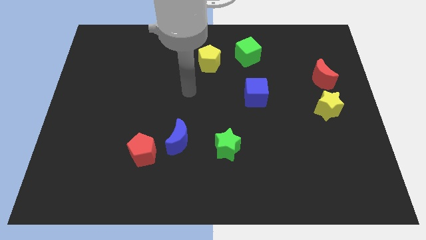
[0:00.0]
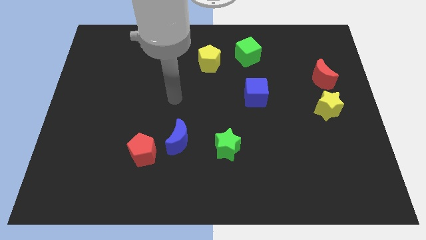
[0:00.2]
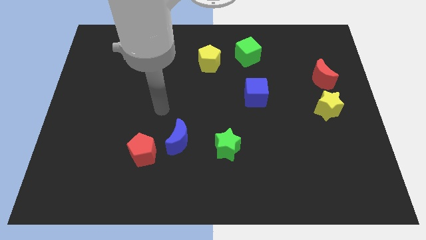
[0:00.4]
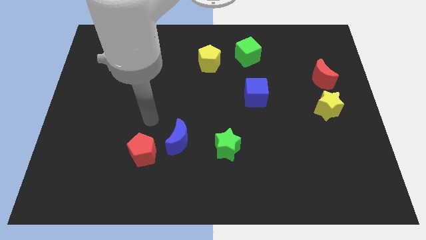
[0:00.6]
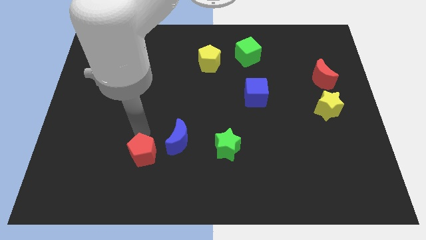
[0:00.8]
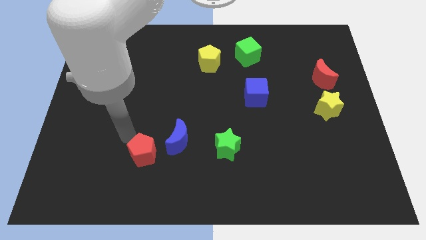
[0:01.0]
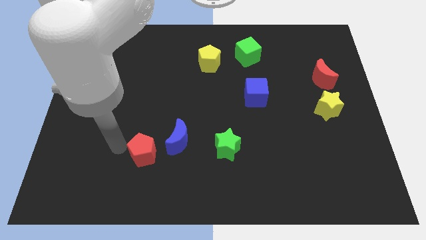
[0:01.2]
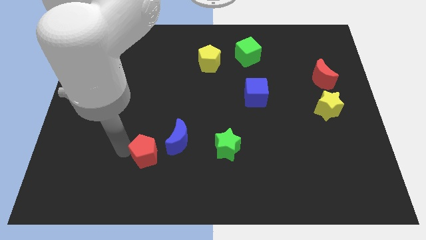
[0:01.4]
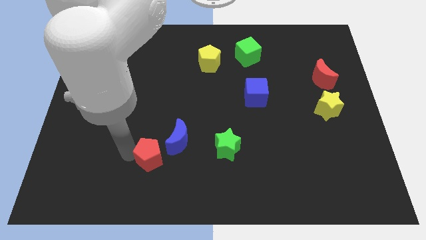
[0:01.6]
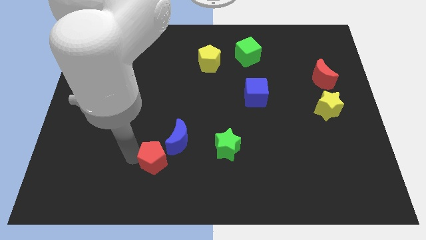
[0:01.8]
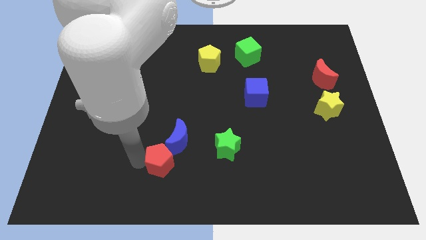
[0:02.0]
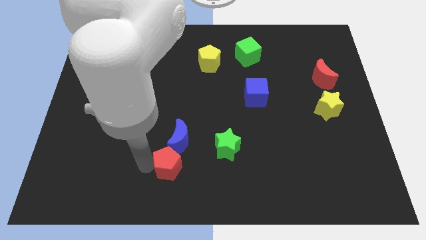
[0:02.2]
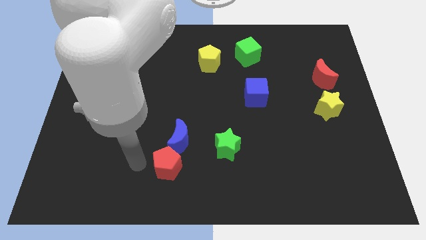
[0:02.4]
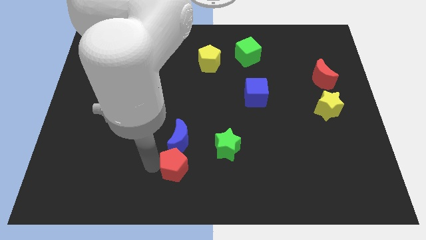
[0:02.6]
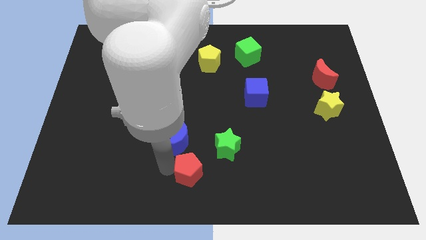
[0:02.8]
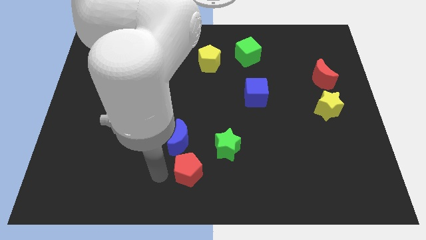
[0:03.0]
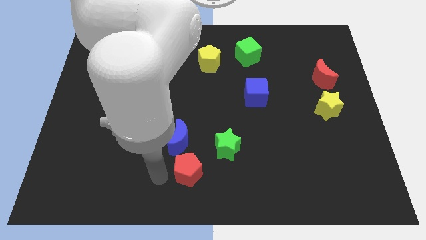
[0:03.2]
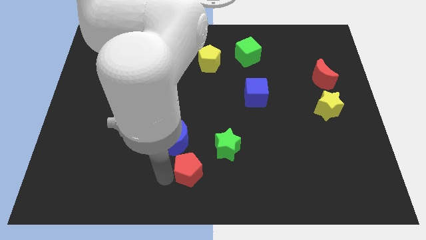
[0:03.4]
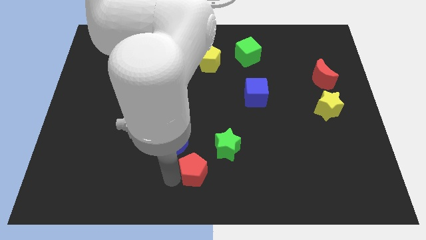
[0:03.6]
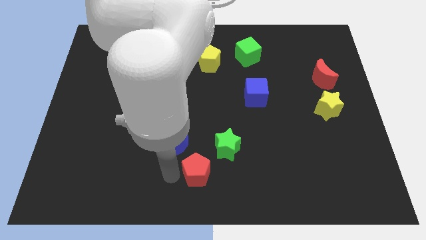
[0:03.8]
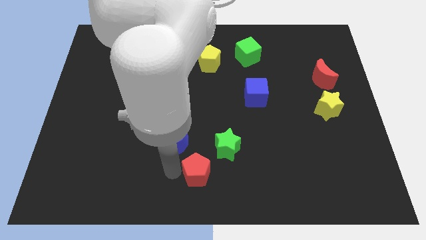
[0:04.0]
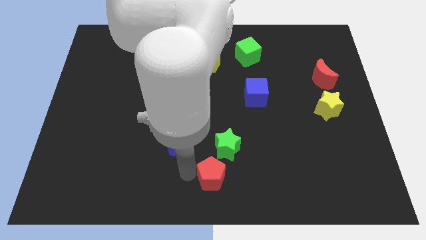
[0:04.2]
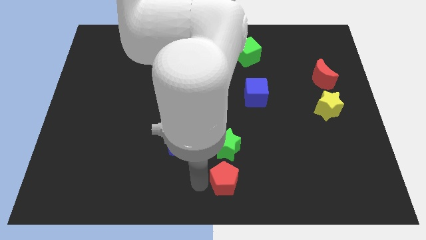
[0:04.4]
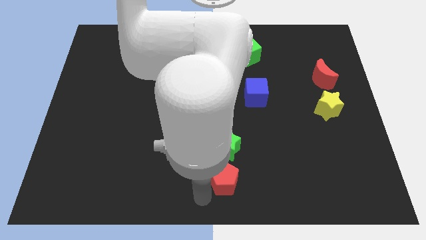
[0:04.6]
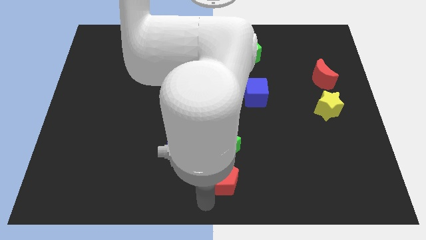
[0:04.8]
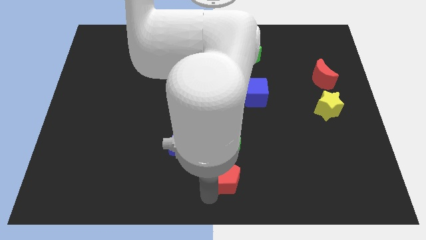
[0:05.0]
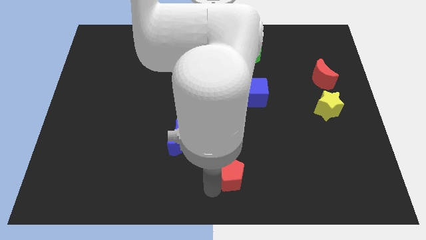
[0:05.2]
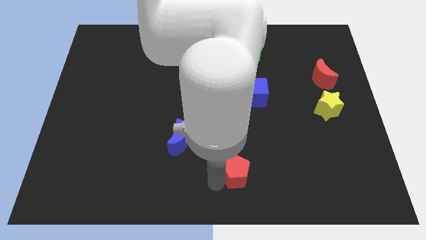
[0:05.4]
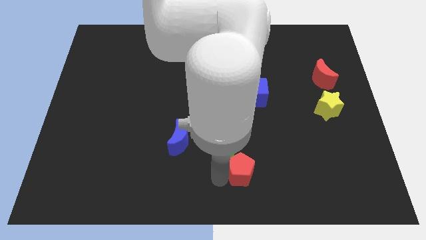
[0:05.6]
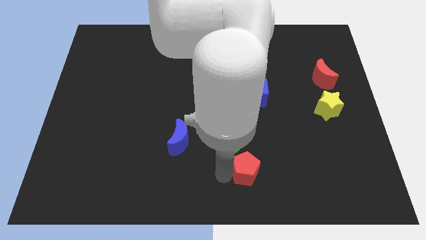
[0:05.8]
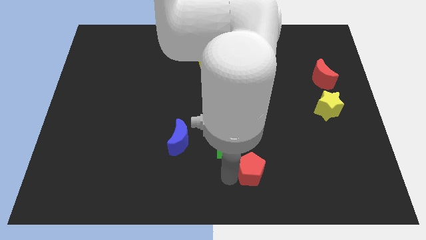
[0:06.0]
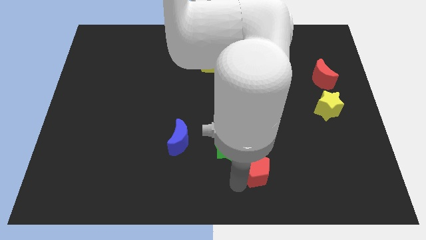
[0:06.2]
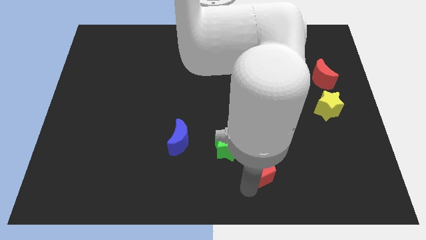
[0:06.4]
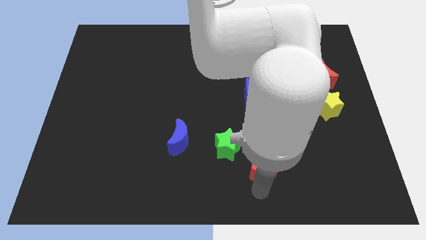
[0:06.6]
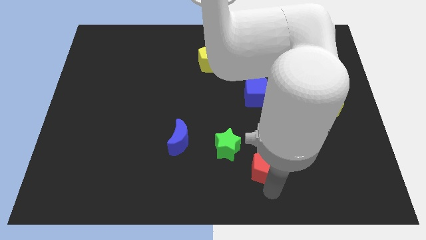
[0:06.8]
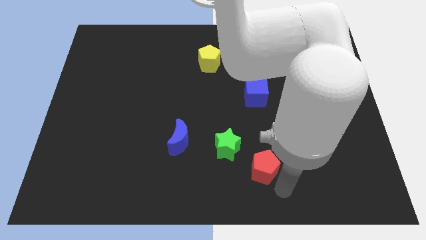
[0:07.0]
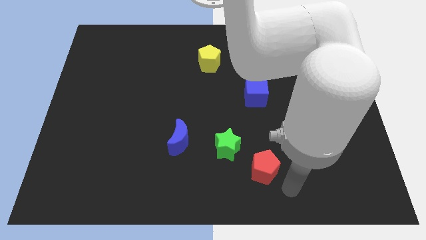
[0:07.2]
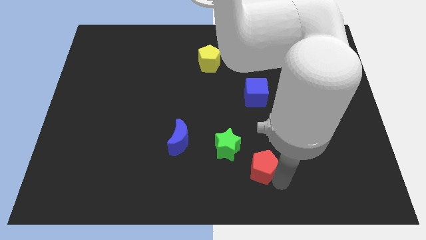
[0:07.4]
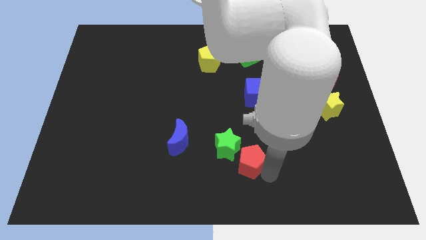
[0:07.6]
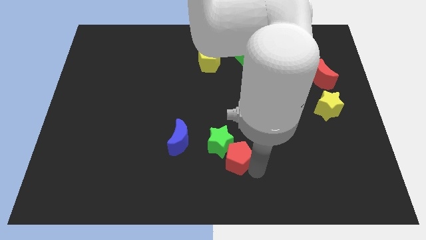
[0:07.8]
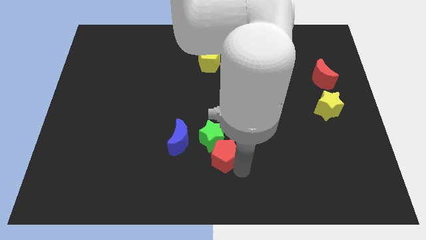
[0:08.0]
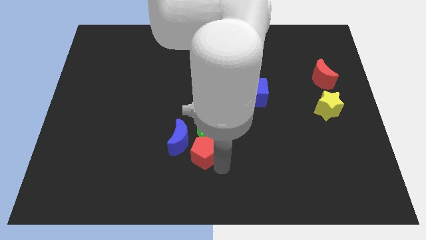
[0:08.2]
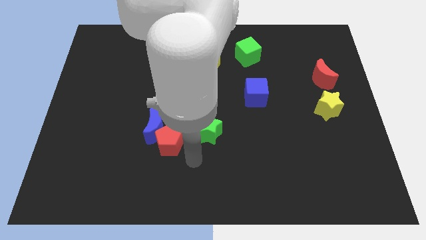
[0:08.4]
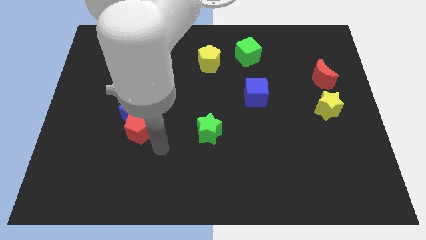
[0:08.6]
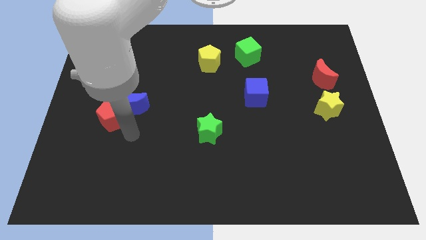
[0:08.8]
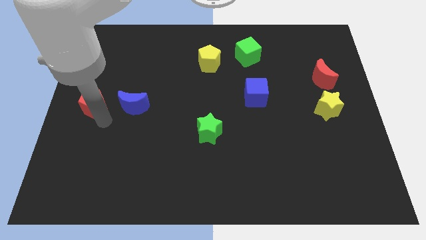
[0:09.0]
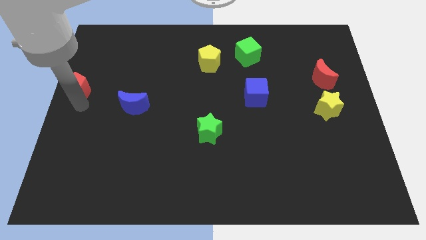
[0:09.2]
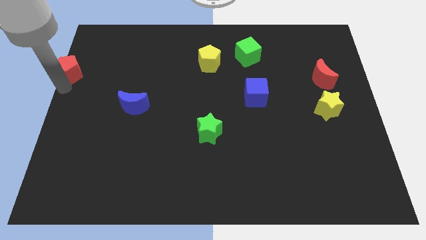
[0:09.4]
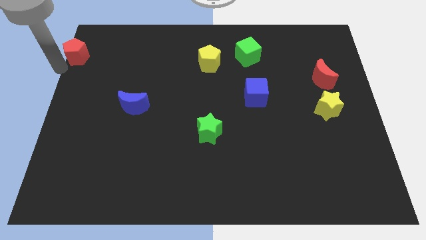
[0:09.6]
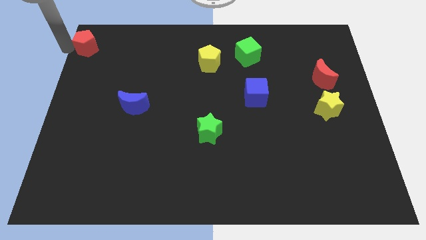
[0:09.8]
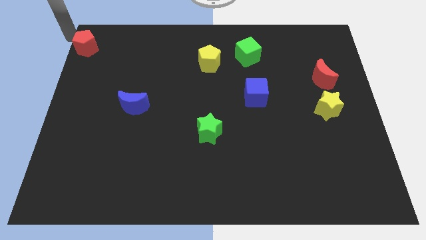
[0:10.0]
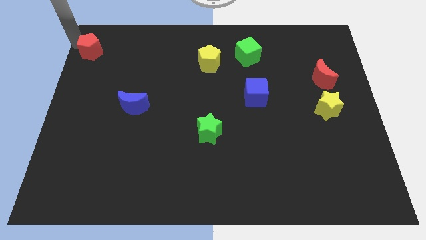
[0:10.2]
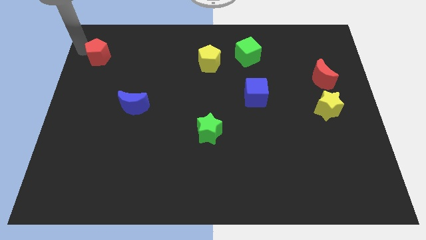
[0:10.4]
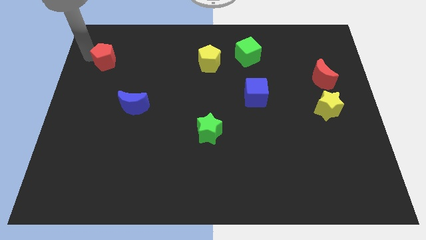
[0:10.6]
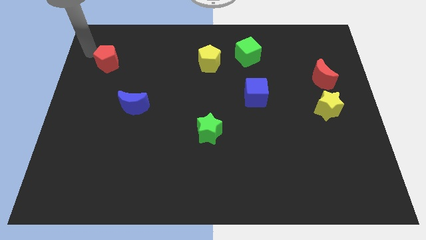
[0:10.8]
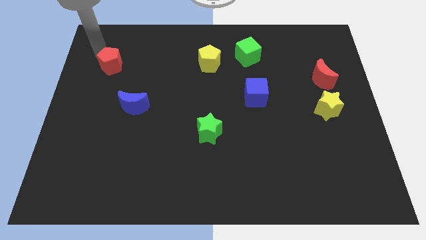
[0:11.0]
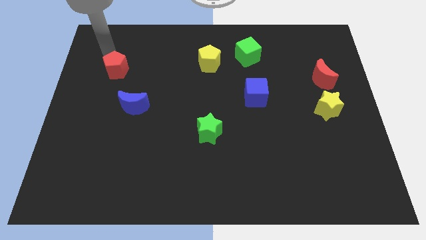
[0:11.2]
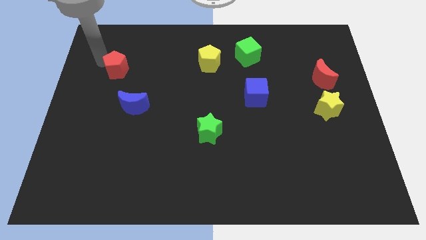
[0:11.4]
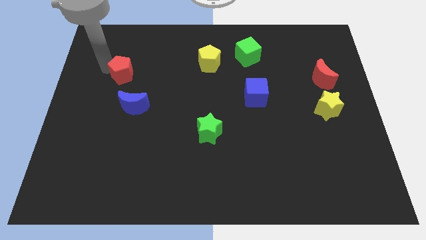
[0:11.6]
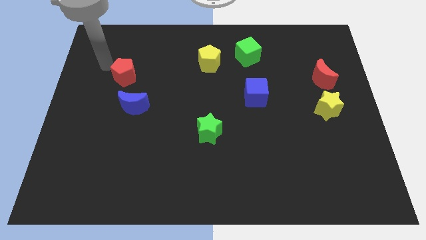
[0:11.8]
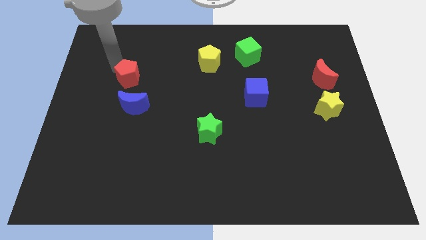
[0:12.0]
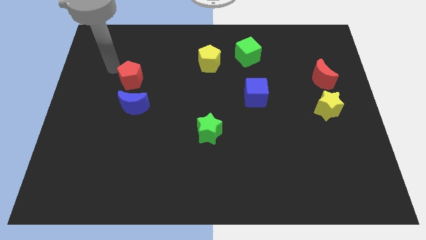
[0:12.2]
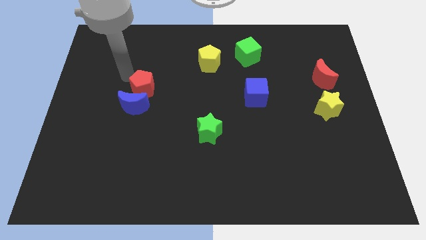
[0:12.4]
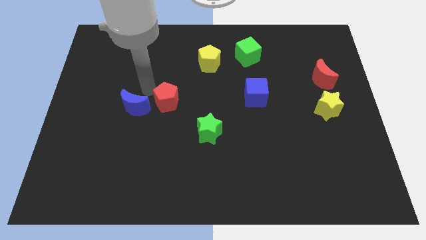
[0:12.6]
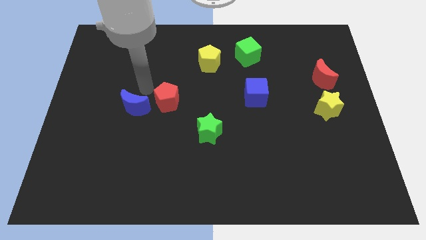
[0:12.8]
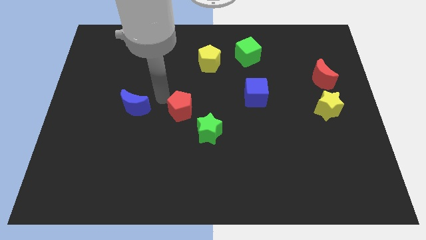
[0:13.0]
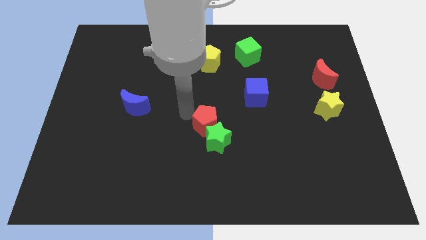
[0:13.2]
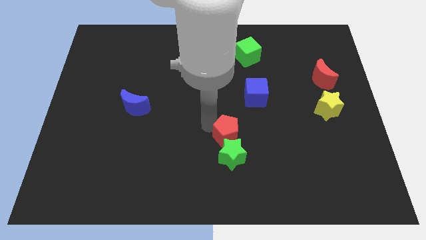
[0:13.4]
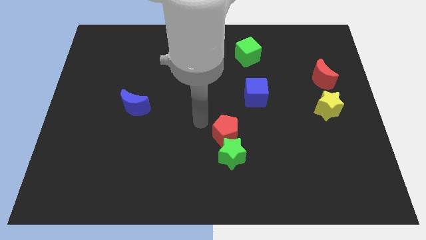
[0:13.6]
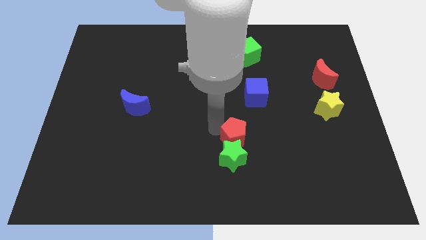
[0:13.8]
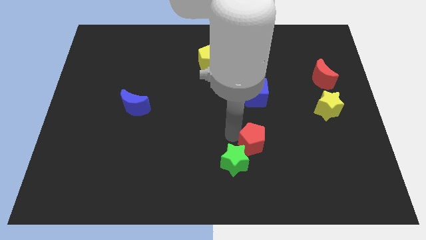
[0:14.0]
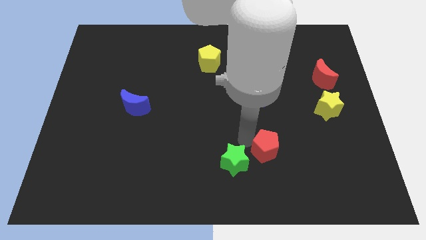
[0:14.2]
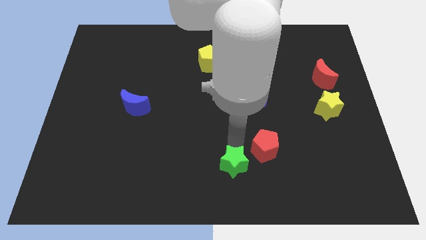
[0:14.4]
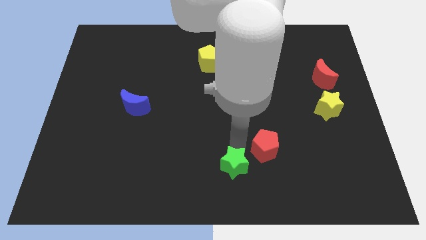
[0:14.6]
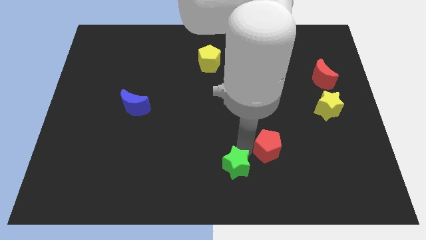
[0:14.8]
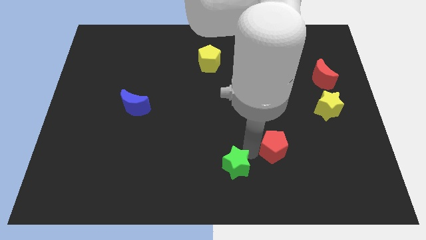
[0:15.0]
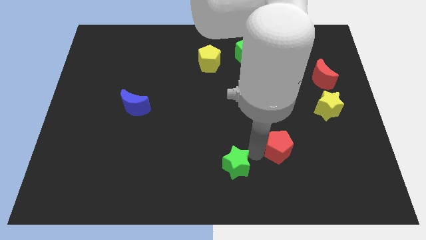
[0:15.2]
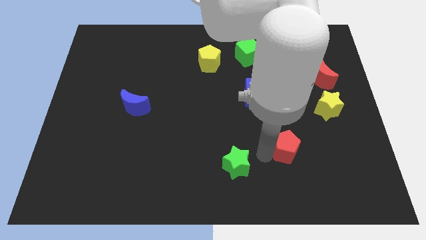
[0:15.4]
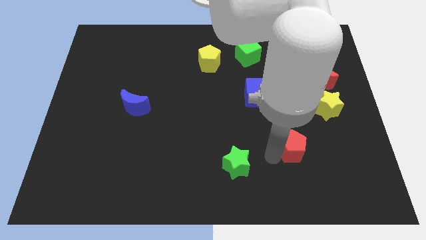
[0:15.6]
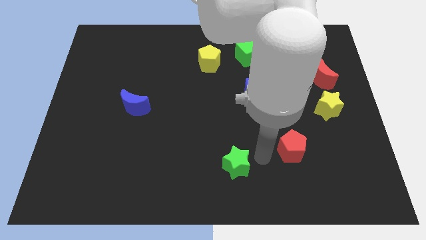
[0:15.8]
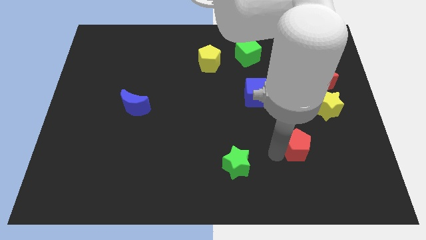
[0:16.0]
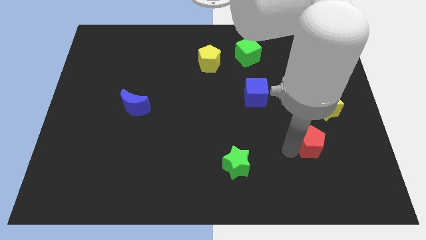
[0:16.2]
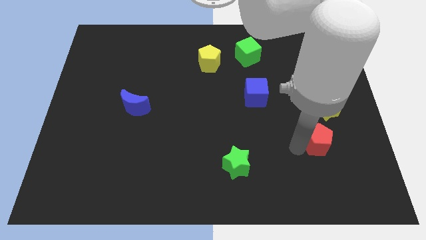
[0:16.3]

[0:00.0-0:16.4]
push the red pentagon below the yellow star
